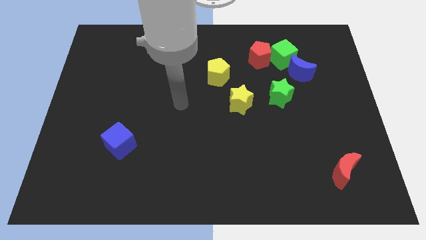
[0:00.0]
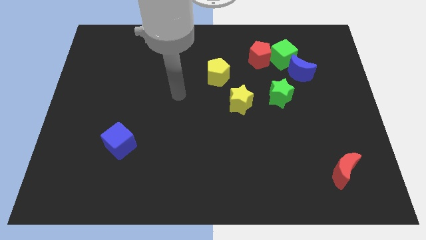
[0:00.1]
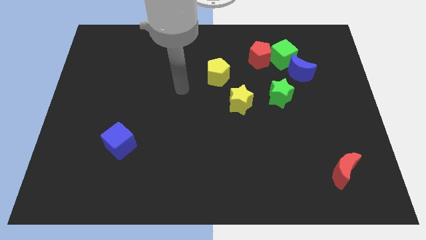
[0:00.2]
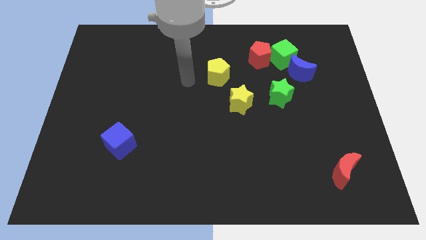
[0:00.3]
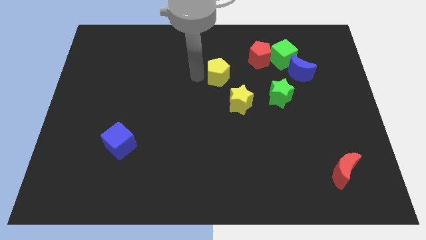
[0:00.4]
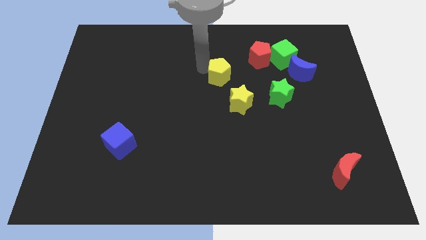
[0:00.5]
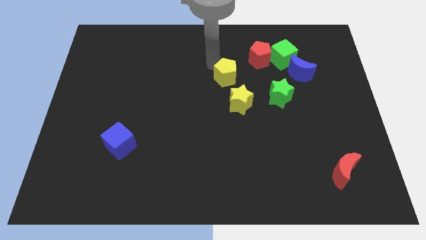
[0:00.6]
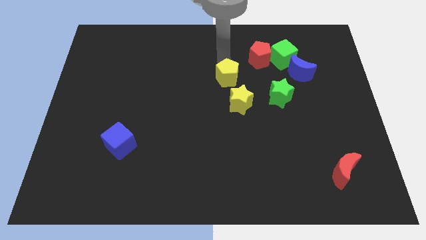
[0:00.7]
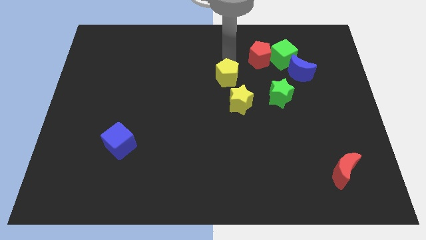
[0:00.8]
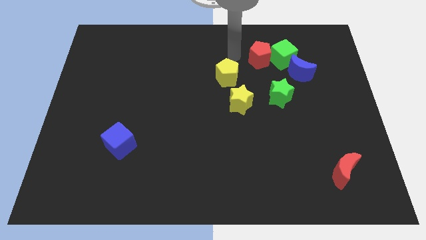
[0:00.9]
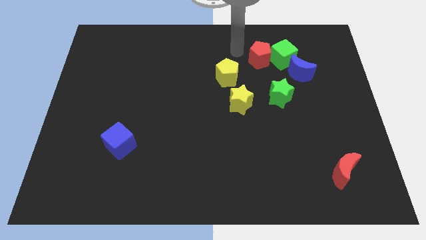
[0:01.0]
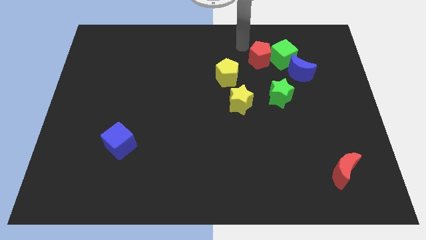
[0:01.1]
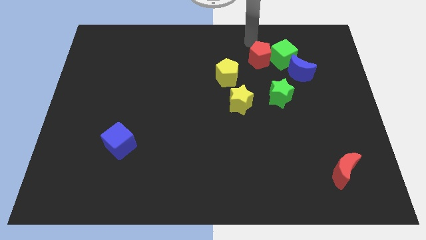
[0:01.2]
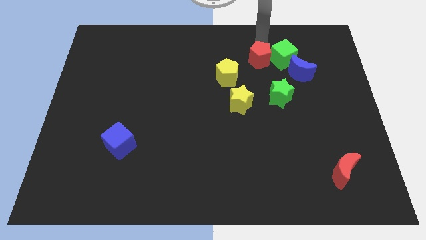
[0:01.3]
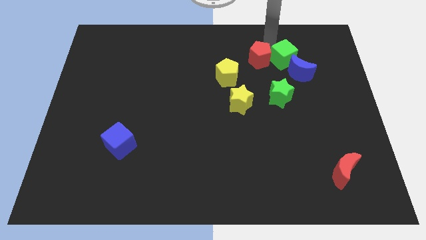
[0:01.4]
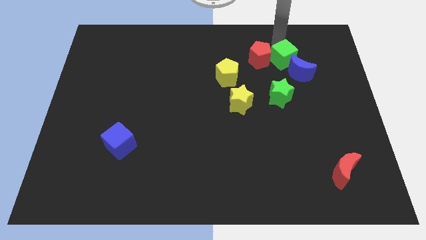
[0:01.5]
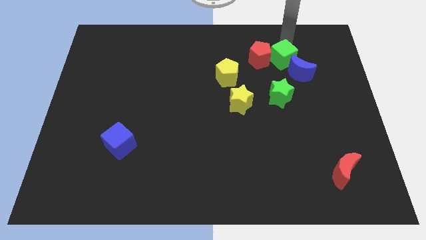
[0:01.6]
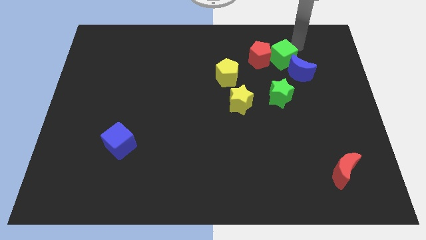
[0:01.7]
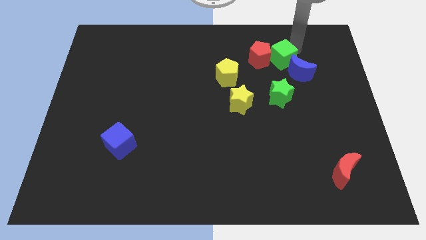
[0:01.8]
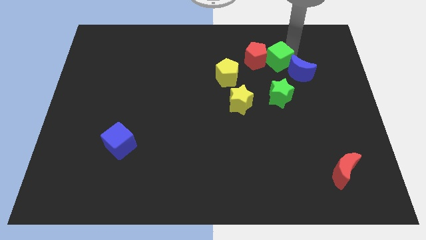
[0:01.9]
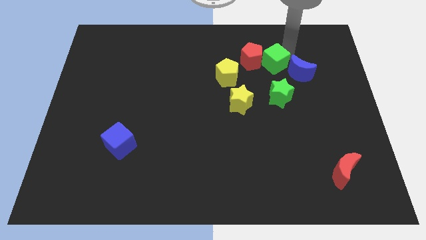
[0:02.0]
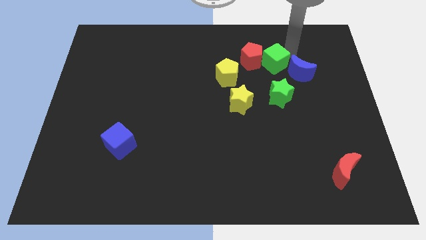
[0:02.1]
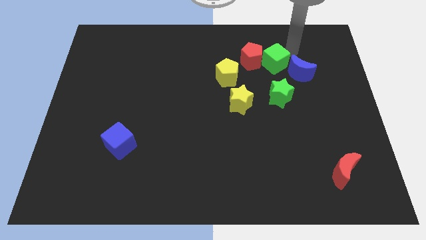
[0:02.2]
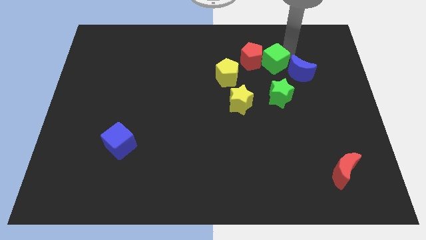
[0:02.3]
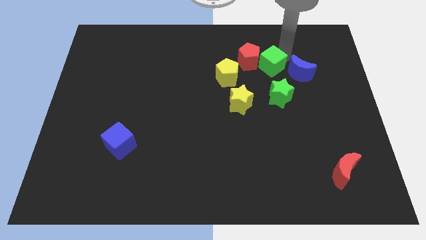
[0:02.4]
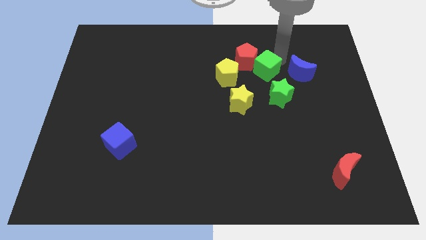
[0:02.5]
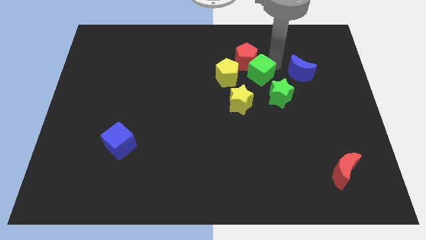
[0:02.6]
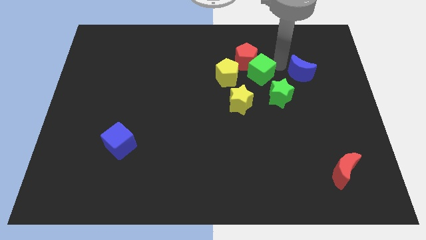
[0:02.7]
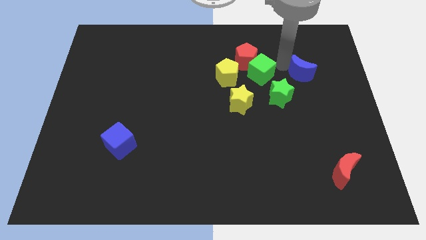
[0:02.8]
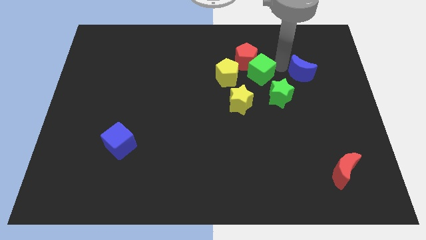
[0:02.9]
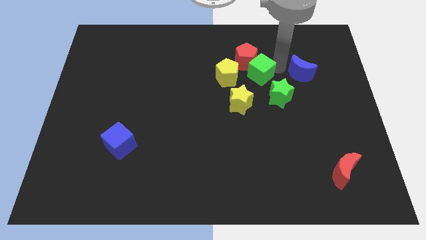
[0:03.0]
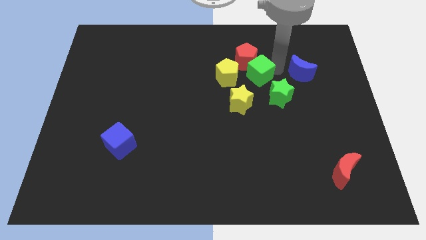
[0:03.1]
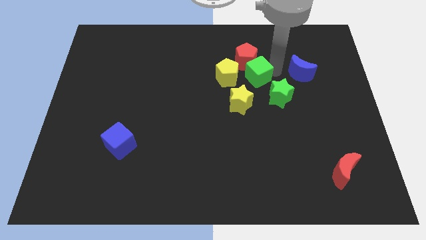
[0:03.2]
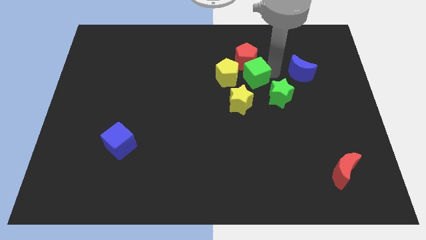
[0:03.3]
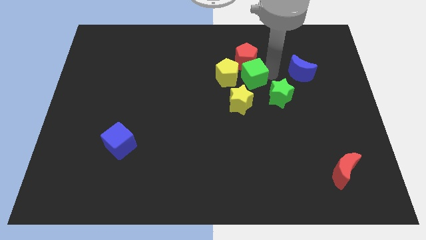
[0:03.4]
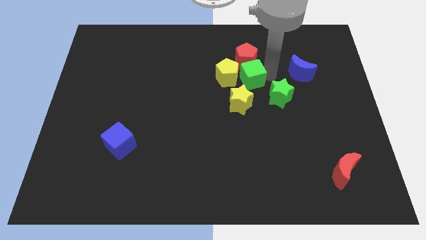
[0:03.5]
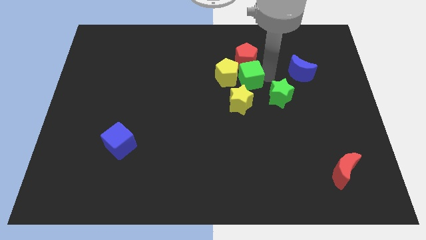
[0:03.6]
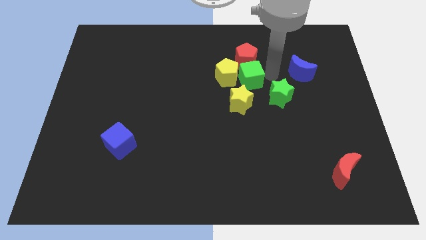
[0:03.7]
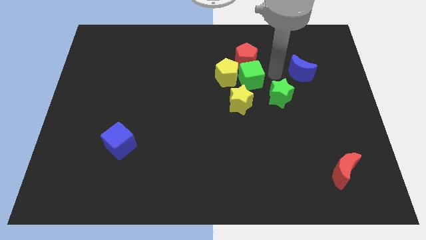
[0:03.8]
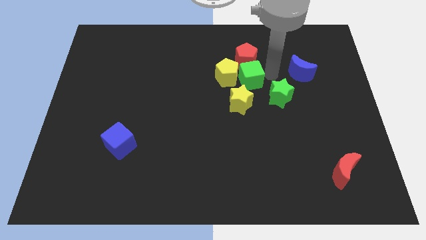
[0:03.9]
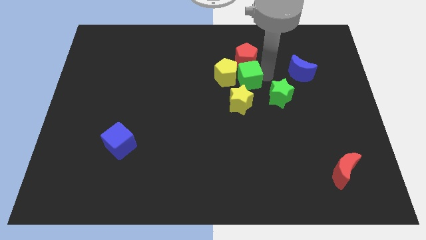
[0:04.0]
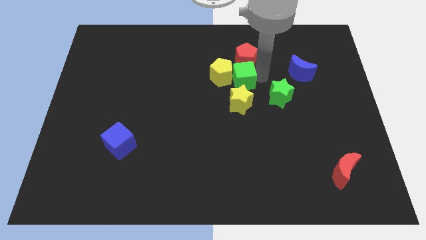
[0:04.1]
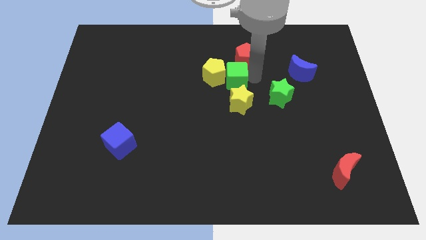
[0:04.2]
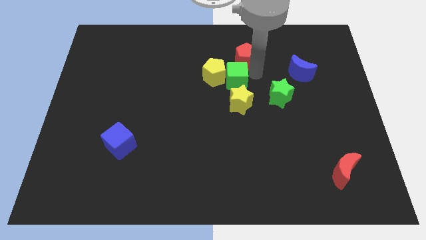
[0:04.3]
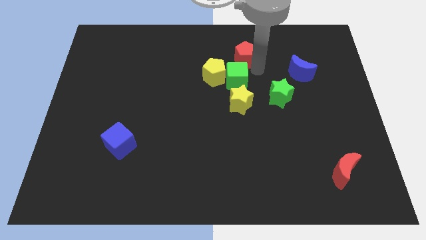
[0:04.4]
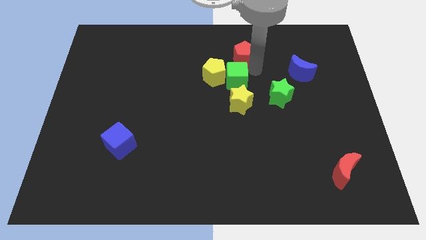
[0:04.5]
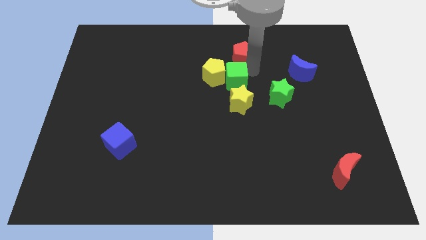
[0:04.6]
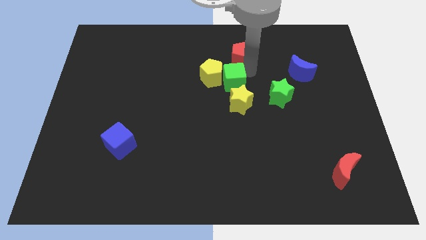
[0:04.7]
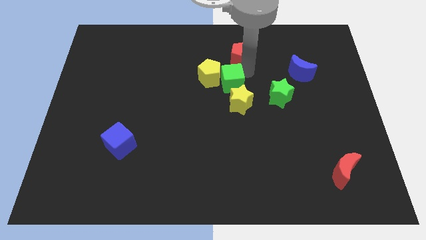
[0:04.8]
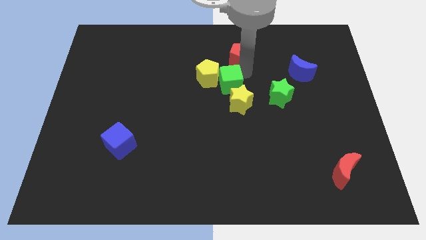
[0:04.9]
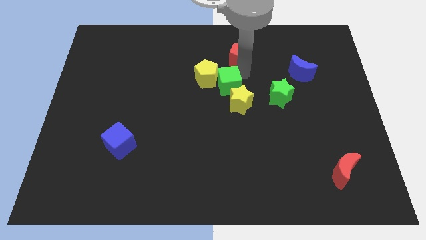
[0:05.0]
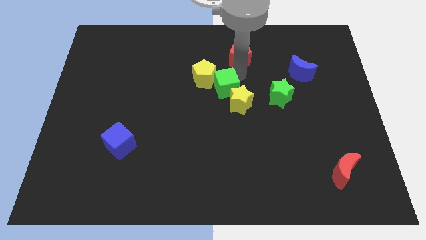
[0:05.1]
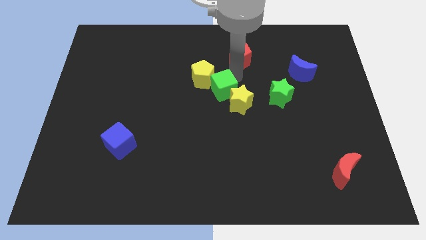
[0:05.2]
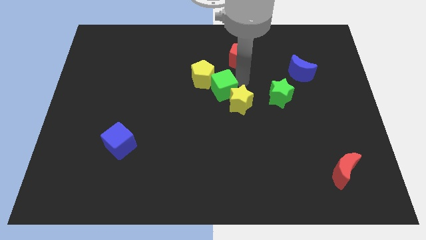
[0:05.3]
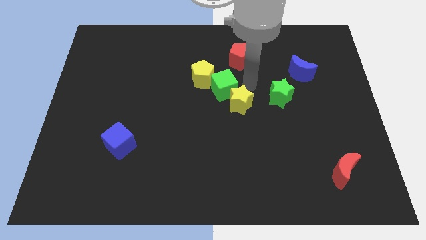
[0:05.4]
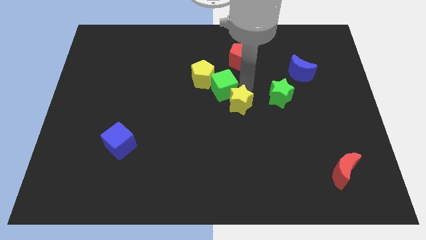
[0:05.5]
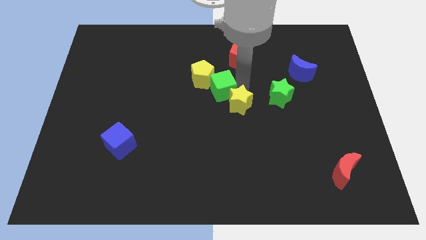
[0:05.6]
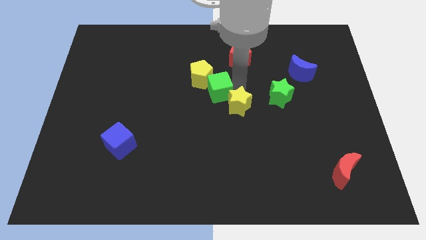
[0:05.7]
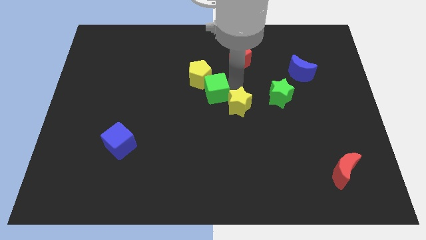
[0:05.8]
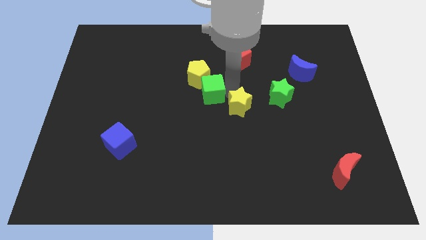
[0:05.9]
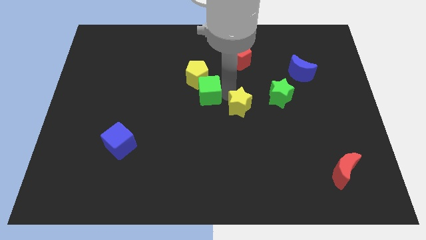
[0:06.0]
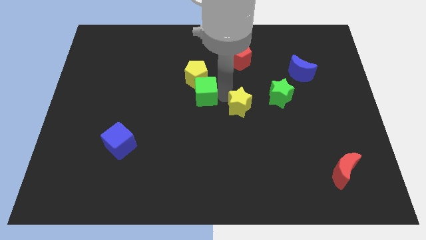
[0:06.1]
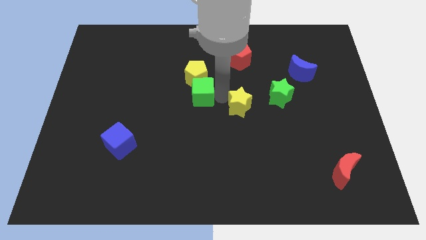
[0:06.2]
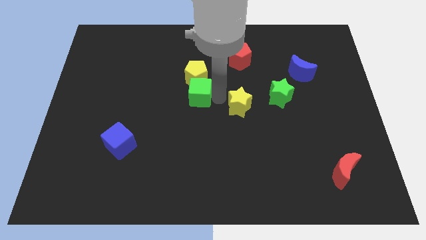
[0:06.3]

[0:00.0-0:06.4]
push the green cube to the bottom left side of the yellow pentagon

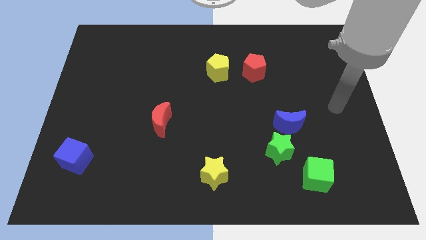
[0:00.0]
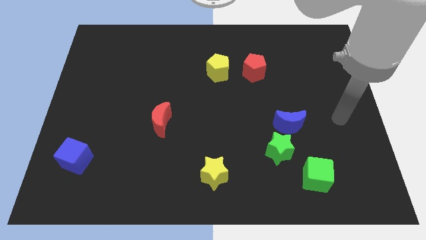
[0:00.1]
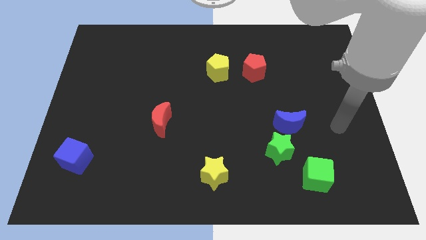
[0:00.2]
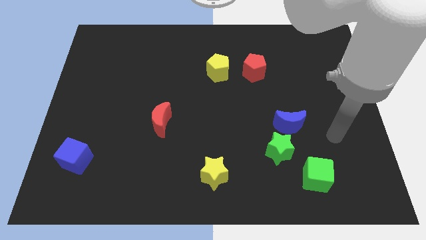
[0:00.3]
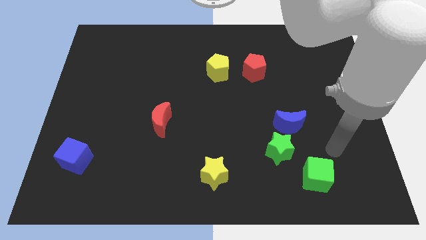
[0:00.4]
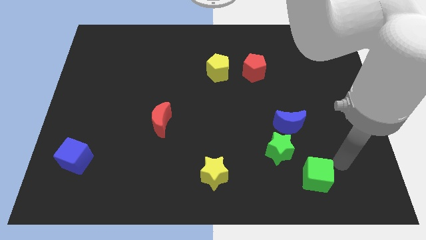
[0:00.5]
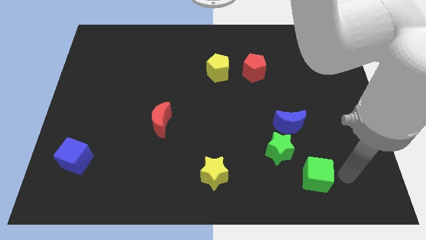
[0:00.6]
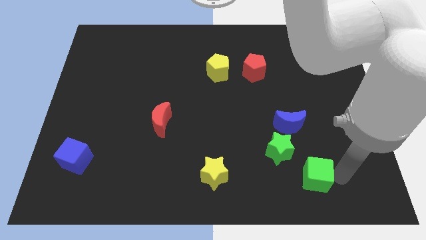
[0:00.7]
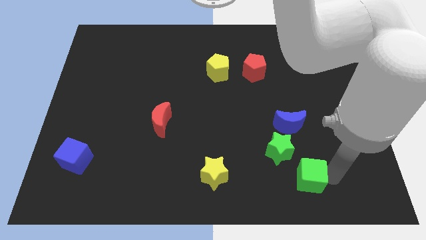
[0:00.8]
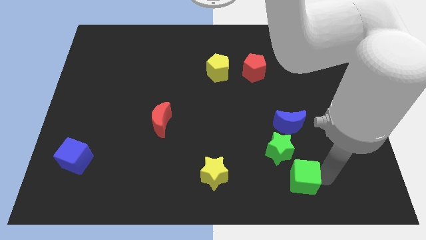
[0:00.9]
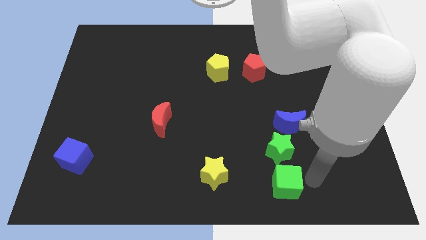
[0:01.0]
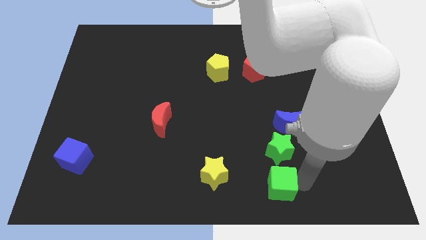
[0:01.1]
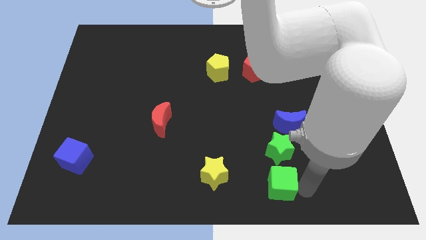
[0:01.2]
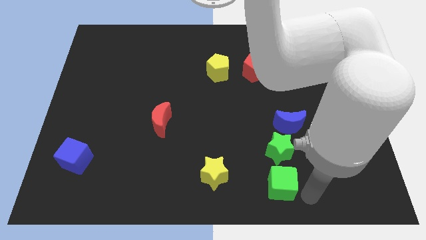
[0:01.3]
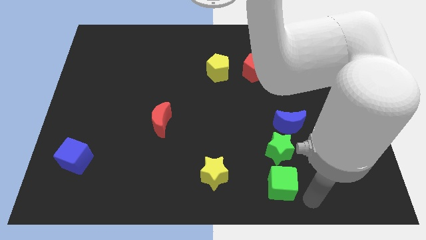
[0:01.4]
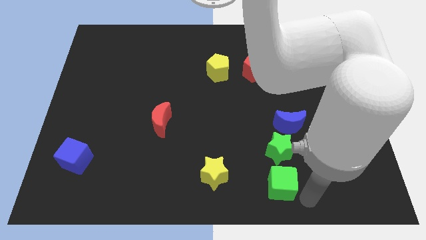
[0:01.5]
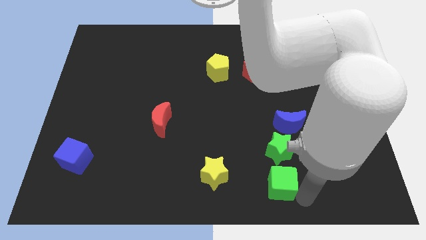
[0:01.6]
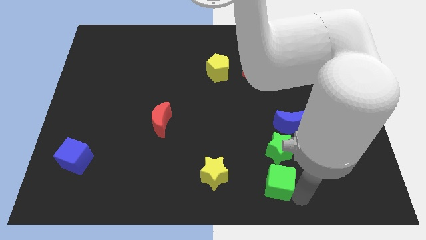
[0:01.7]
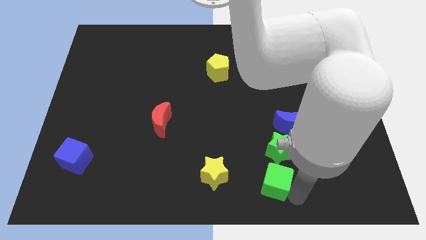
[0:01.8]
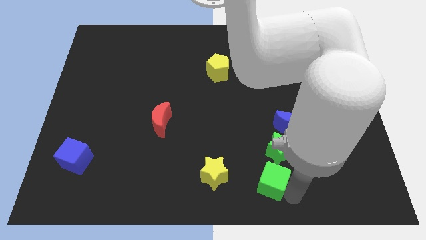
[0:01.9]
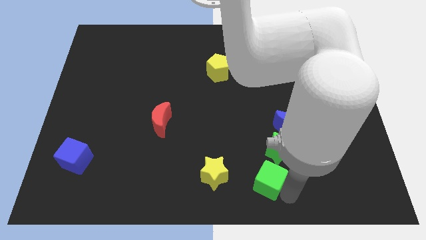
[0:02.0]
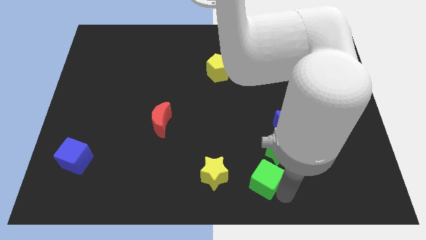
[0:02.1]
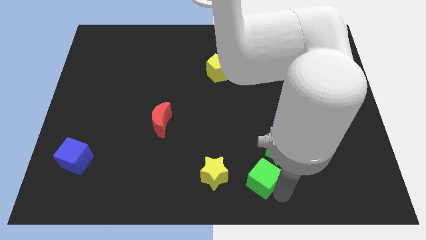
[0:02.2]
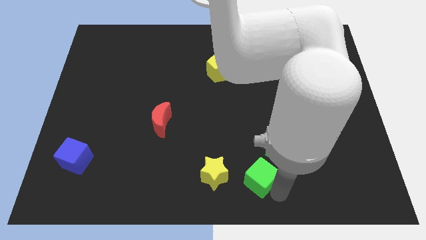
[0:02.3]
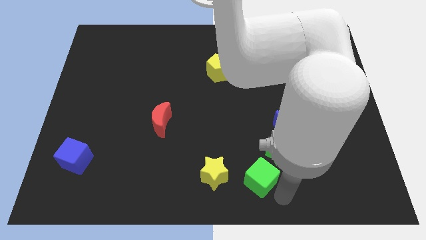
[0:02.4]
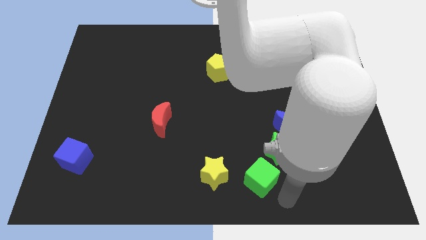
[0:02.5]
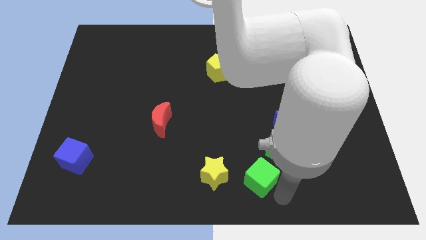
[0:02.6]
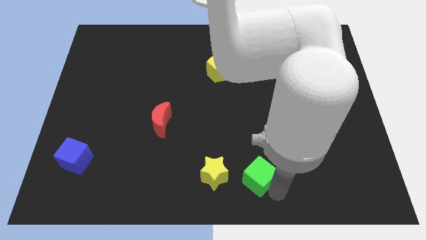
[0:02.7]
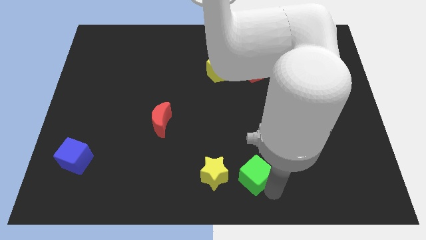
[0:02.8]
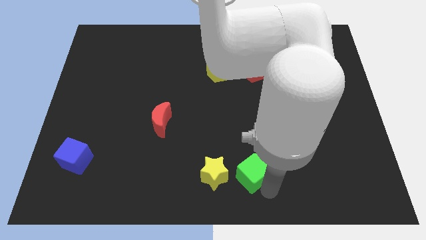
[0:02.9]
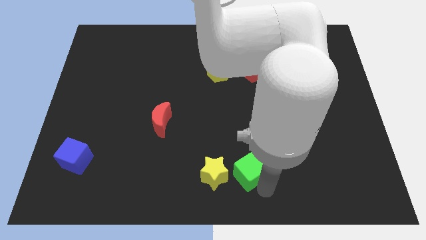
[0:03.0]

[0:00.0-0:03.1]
put the green cube diagonally up and to the right of the yellow star
